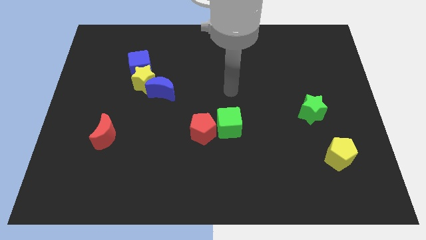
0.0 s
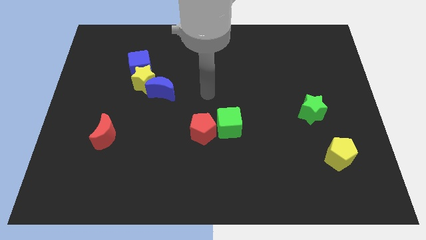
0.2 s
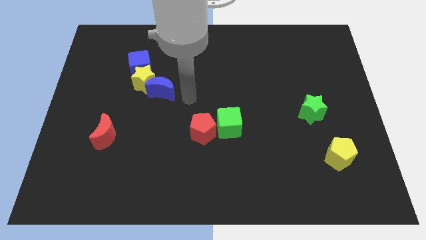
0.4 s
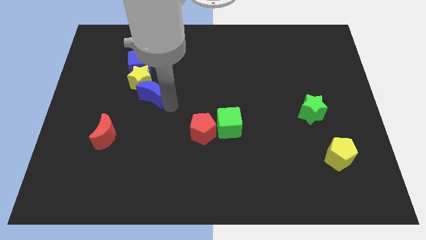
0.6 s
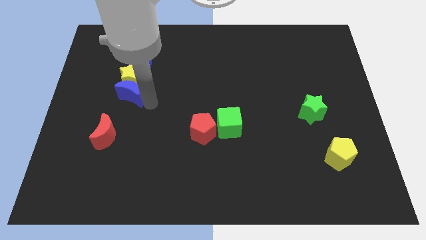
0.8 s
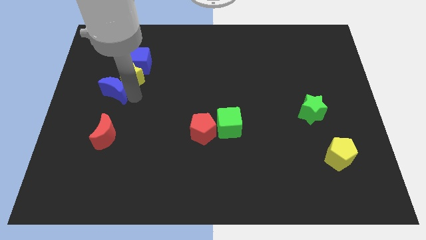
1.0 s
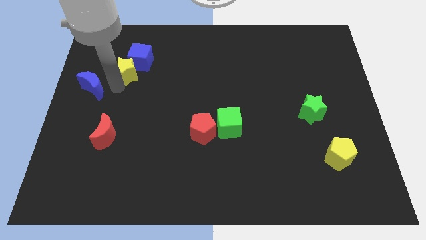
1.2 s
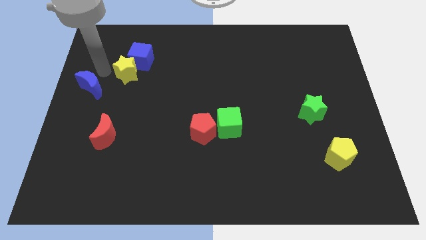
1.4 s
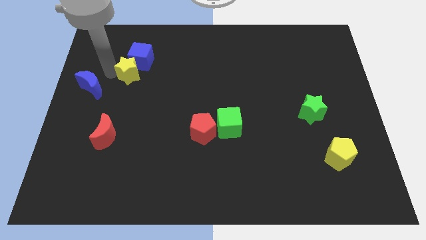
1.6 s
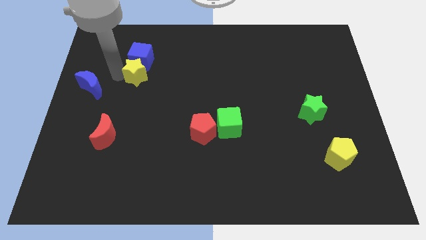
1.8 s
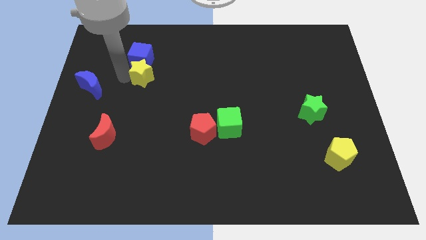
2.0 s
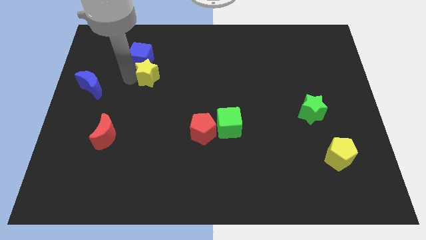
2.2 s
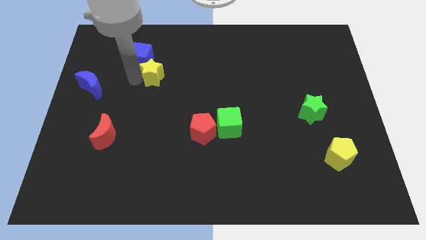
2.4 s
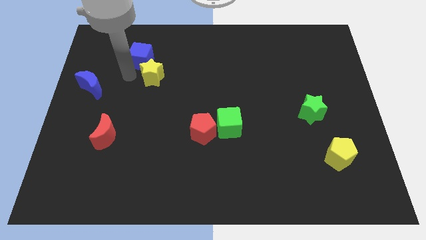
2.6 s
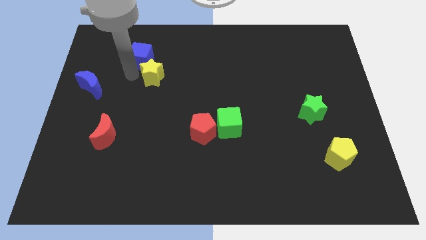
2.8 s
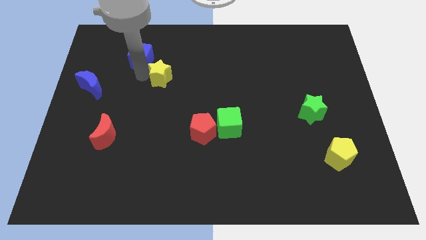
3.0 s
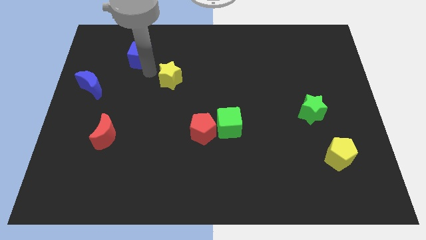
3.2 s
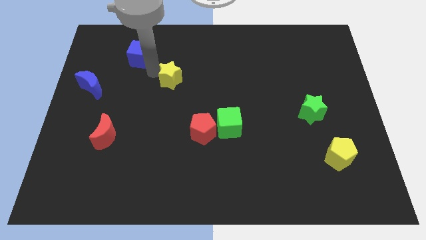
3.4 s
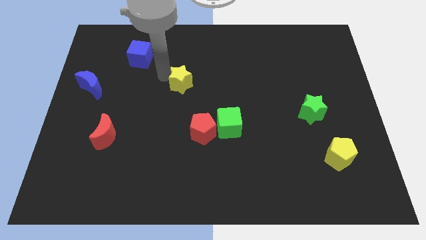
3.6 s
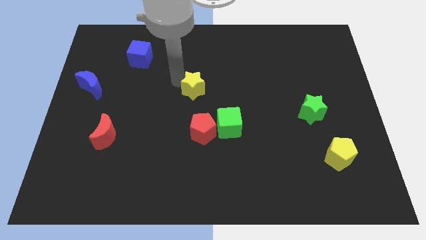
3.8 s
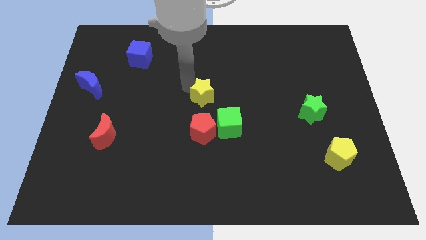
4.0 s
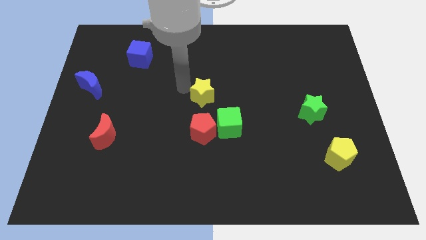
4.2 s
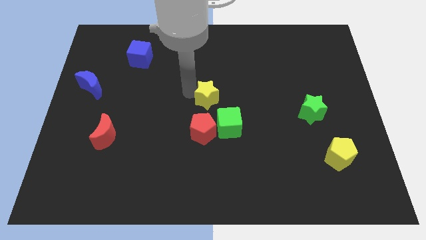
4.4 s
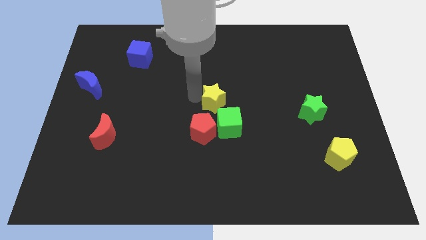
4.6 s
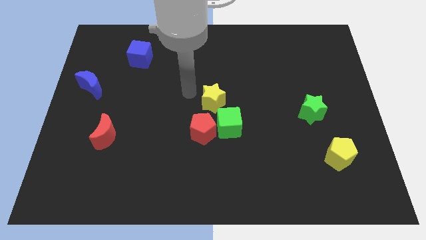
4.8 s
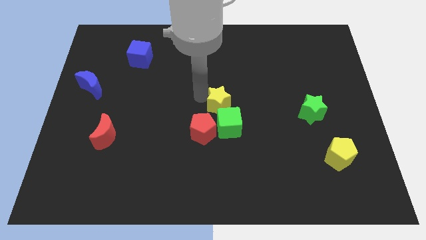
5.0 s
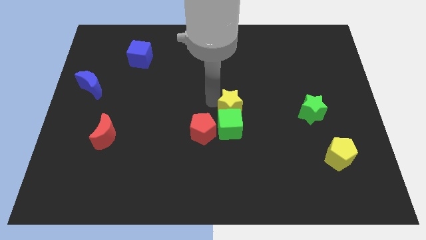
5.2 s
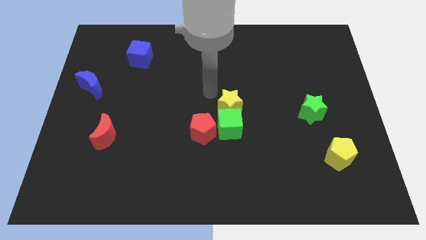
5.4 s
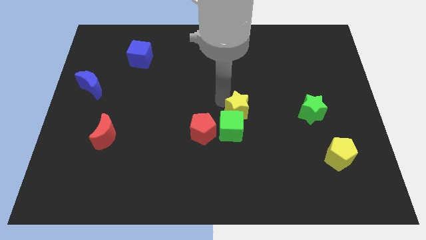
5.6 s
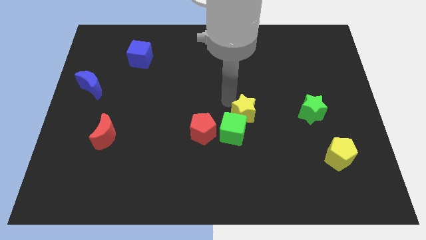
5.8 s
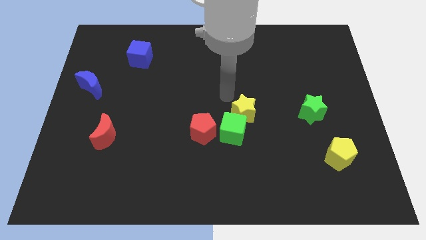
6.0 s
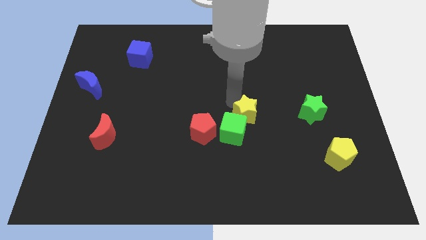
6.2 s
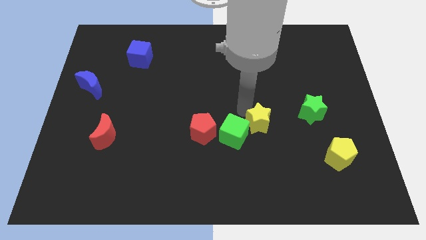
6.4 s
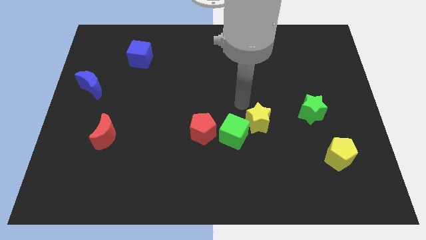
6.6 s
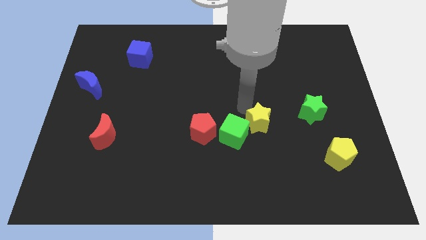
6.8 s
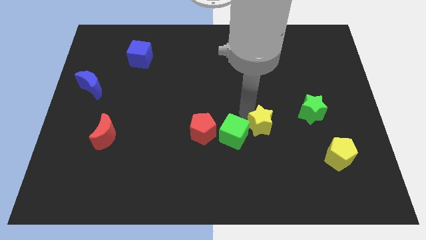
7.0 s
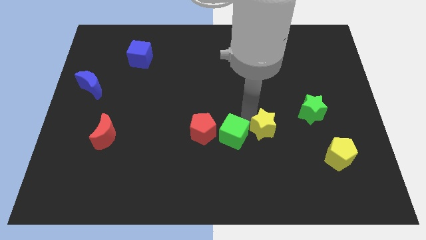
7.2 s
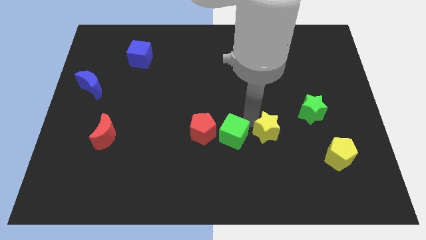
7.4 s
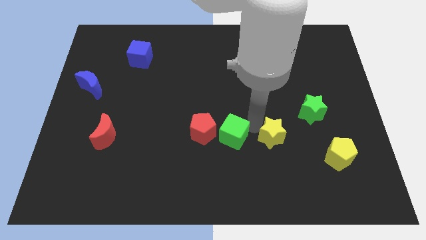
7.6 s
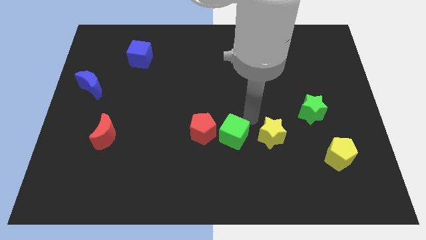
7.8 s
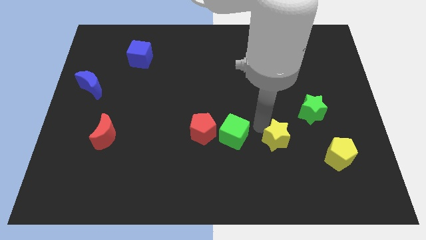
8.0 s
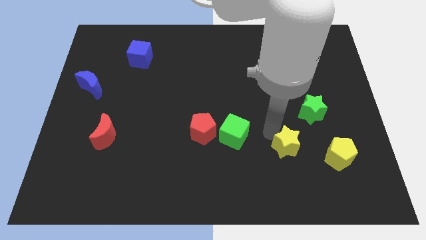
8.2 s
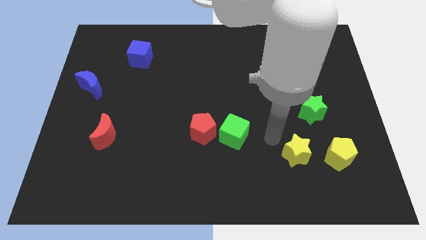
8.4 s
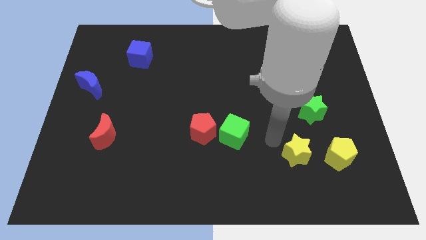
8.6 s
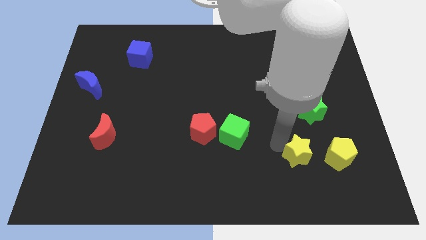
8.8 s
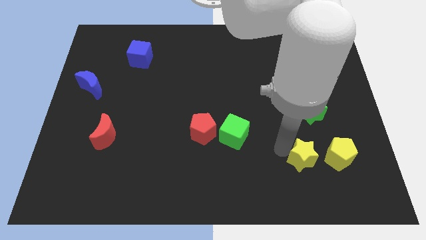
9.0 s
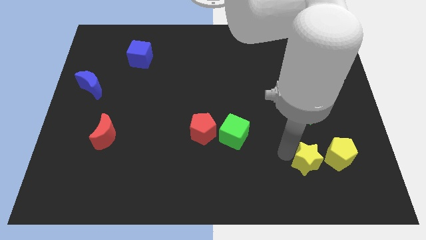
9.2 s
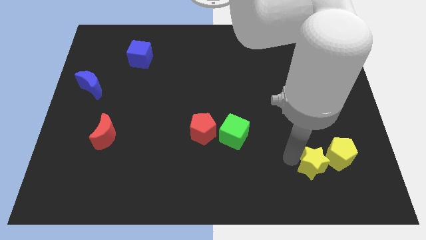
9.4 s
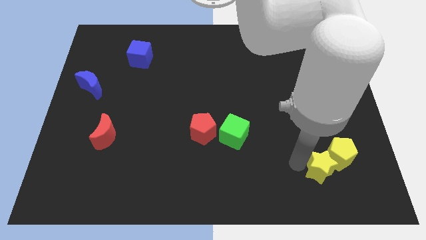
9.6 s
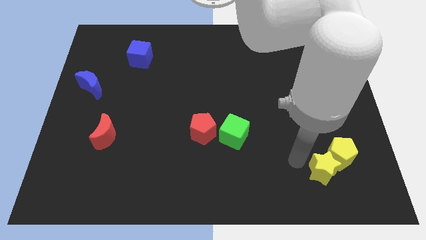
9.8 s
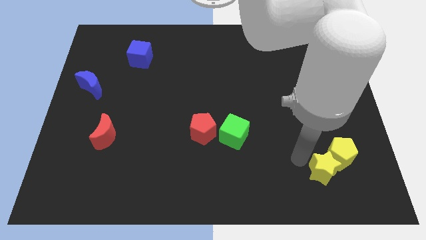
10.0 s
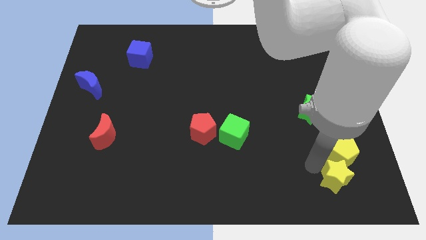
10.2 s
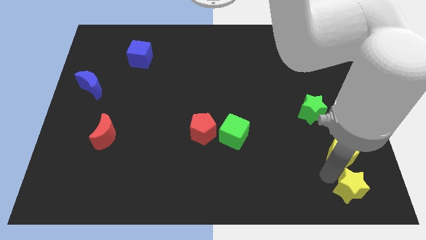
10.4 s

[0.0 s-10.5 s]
slide the yellow star to the bottom right of the board

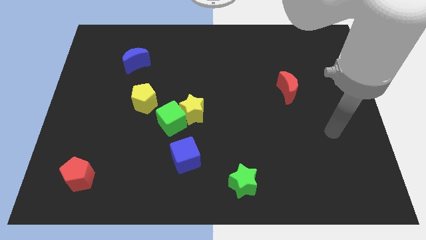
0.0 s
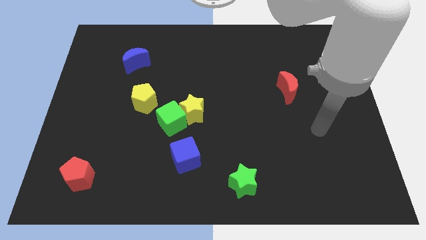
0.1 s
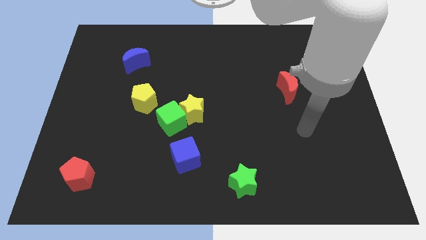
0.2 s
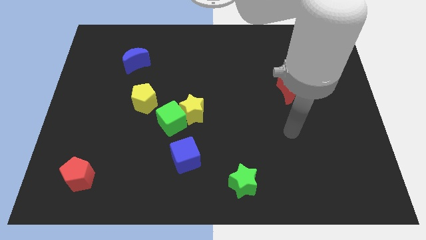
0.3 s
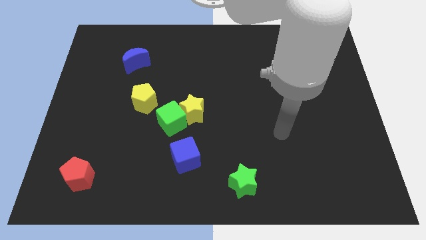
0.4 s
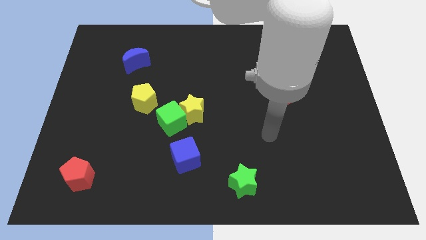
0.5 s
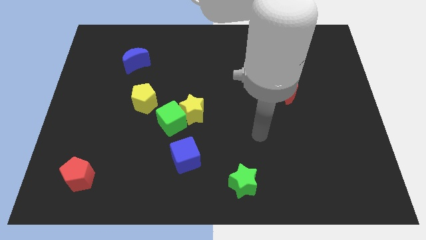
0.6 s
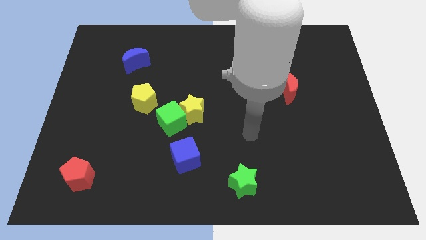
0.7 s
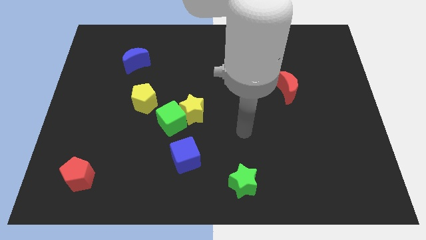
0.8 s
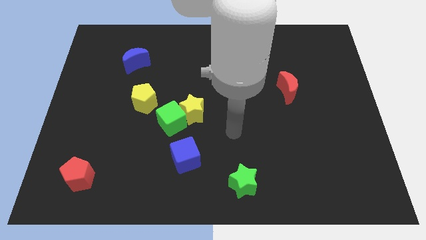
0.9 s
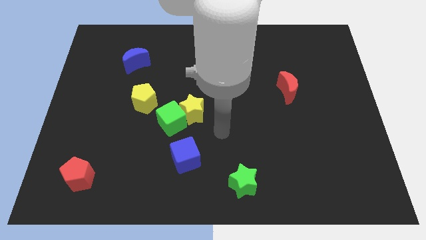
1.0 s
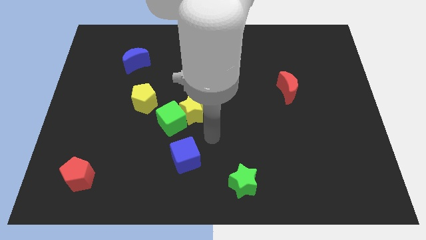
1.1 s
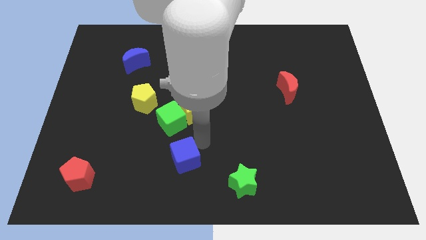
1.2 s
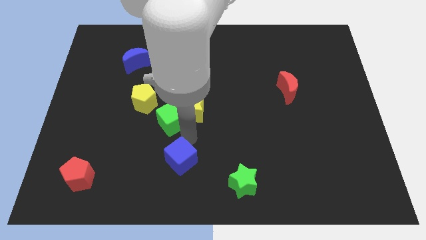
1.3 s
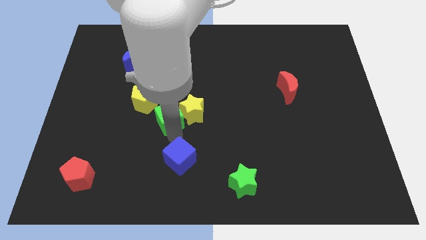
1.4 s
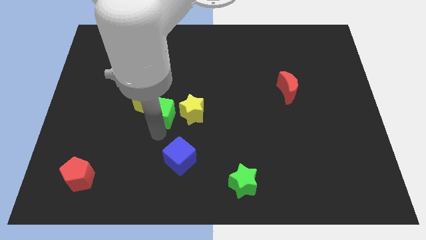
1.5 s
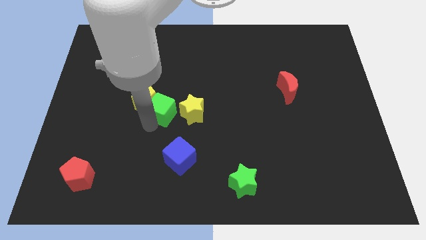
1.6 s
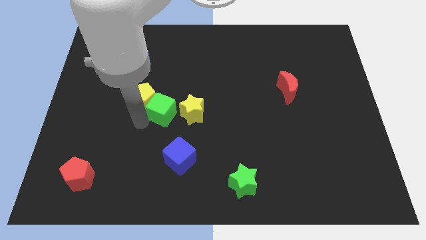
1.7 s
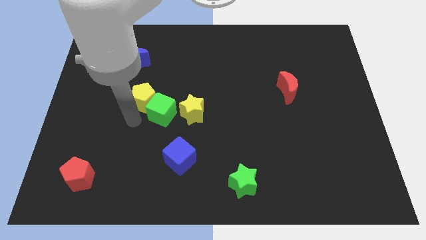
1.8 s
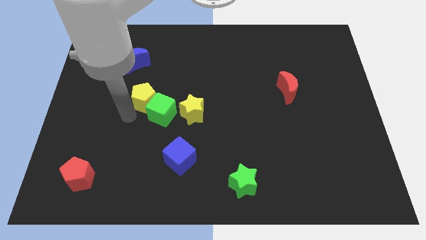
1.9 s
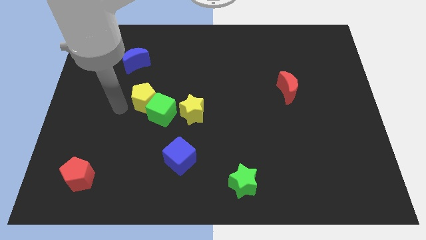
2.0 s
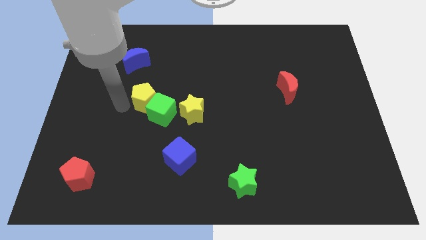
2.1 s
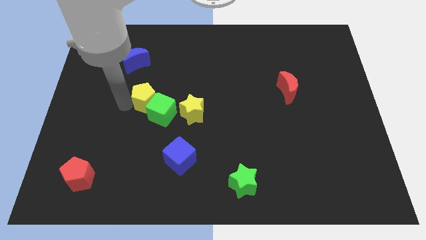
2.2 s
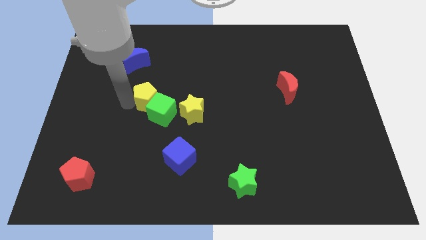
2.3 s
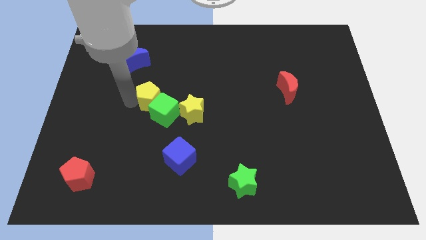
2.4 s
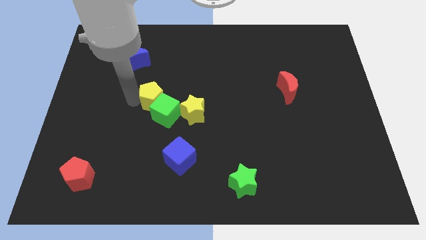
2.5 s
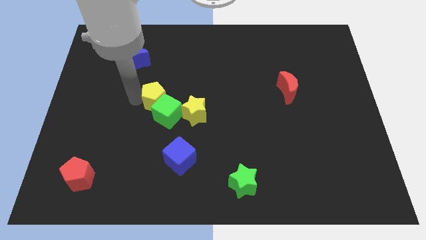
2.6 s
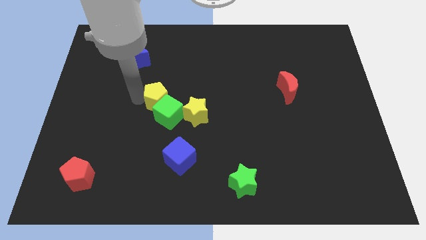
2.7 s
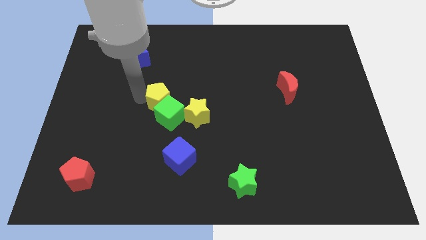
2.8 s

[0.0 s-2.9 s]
push the yellow pentagon to the center of the board
